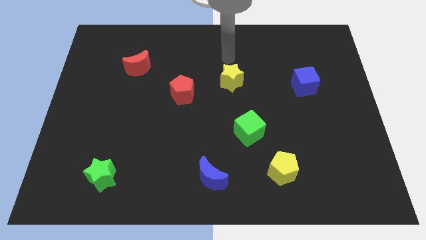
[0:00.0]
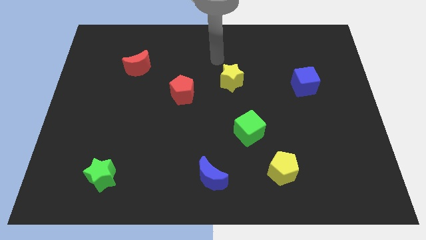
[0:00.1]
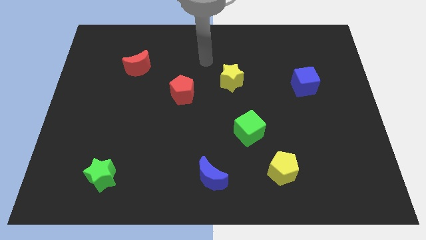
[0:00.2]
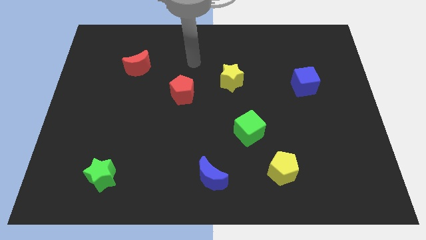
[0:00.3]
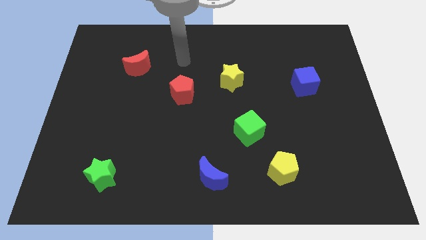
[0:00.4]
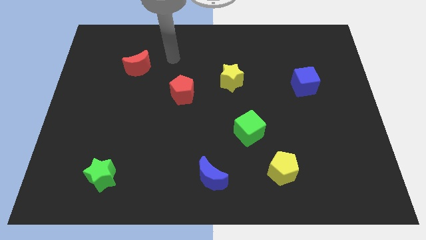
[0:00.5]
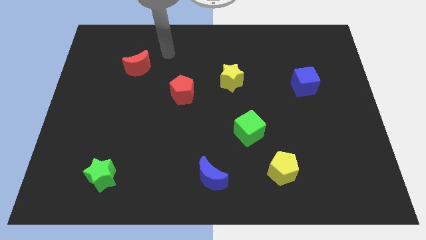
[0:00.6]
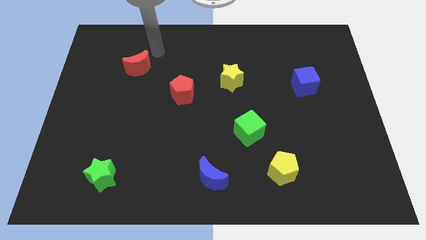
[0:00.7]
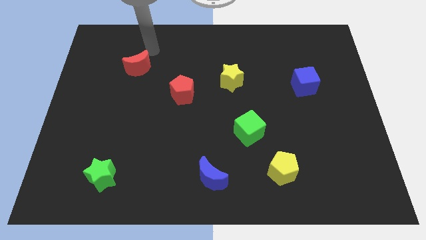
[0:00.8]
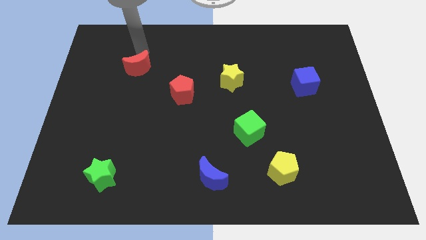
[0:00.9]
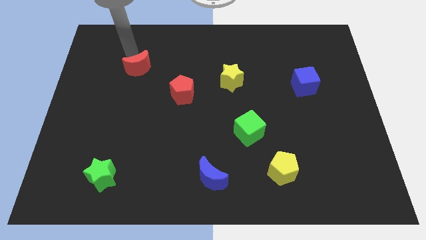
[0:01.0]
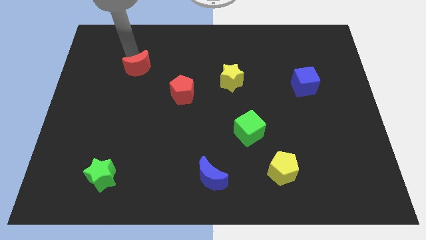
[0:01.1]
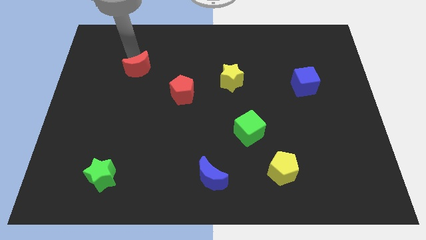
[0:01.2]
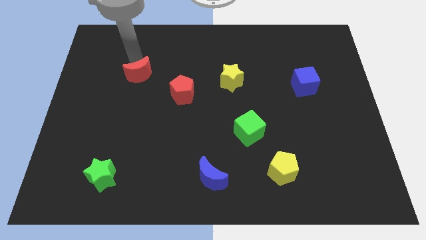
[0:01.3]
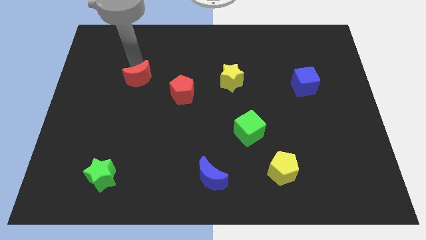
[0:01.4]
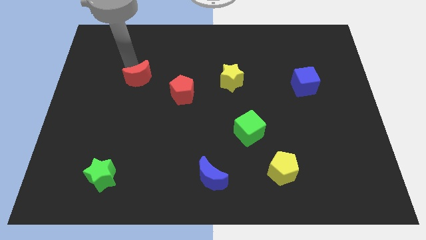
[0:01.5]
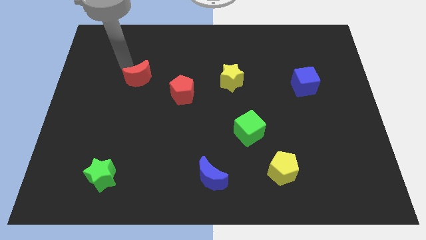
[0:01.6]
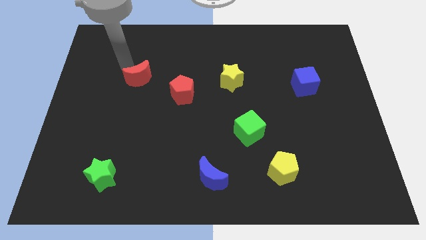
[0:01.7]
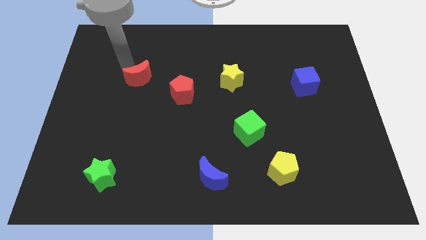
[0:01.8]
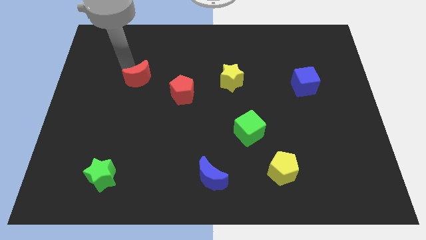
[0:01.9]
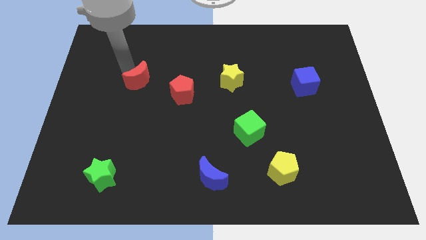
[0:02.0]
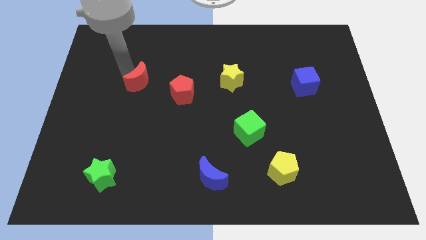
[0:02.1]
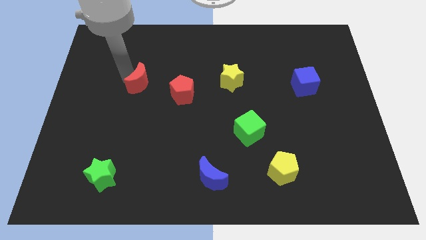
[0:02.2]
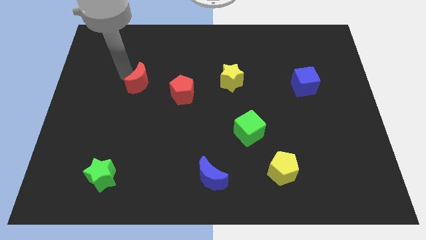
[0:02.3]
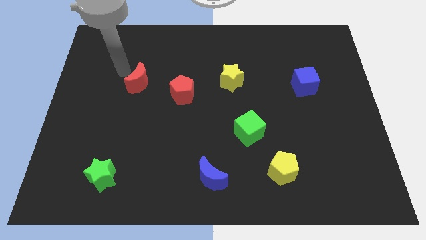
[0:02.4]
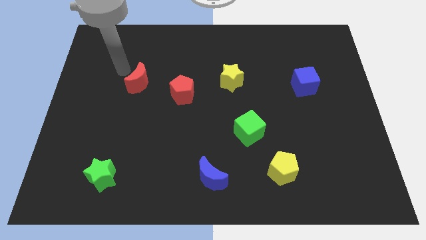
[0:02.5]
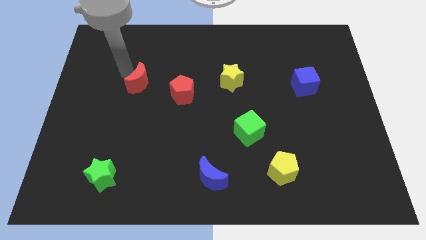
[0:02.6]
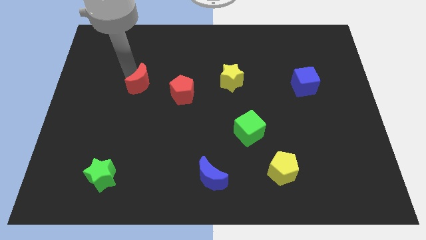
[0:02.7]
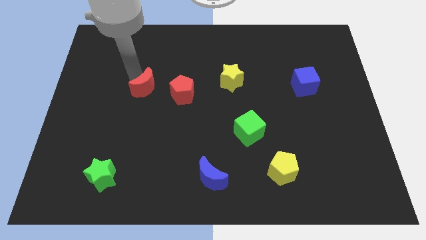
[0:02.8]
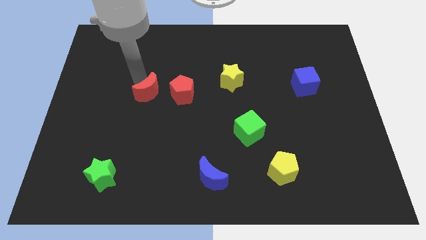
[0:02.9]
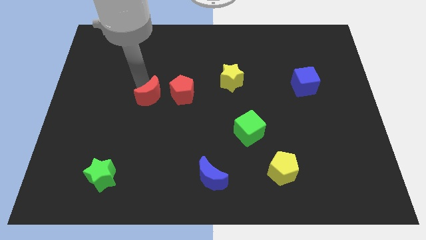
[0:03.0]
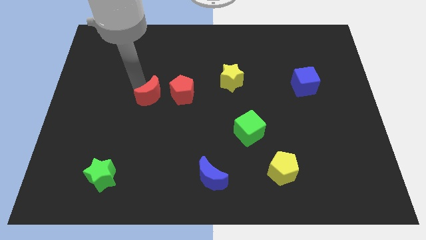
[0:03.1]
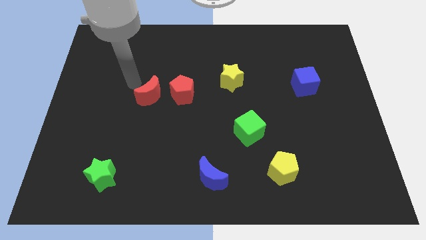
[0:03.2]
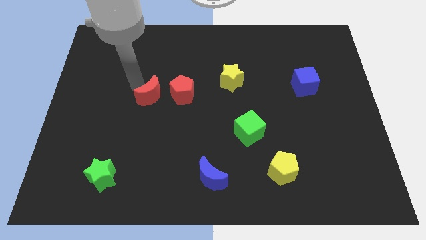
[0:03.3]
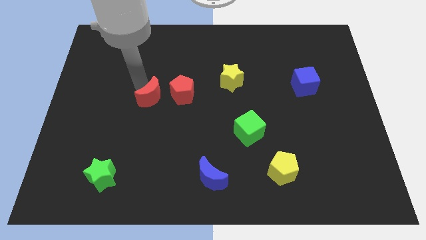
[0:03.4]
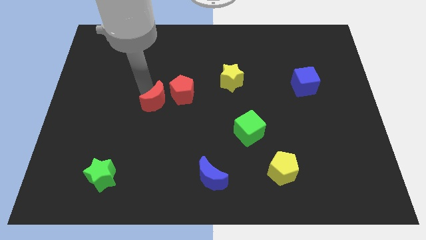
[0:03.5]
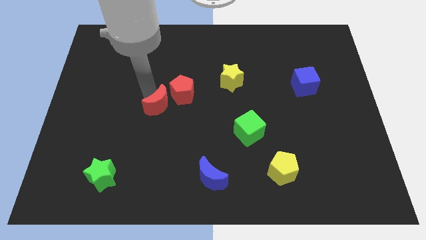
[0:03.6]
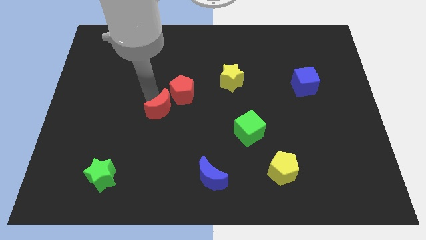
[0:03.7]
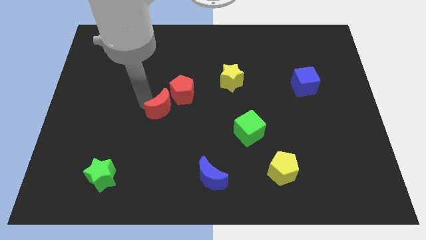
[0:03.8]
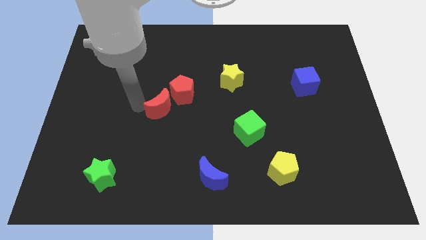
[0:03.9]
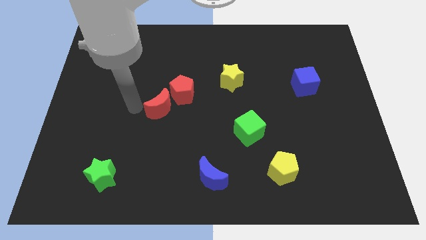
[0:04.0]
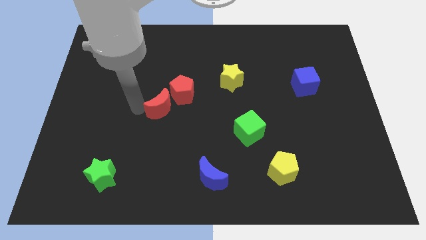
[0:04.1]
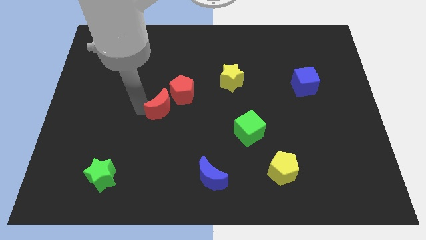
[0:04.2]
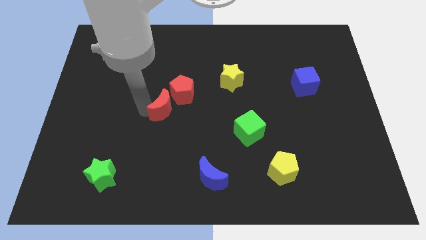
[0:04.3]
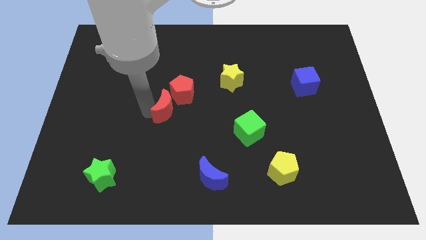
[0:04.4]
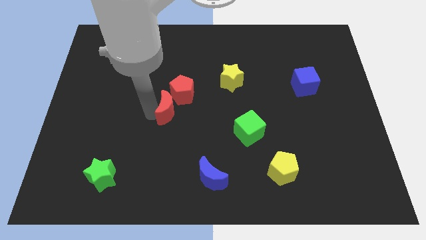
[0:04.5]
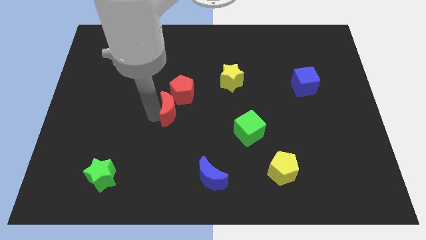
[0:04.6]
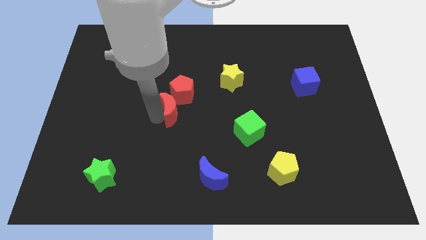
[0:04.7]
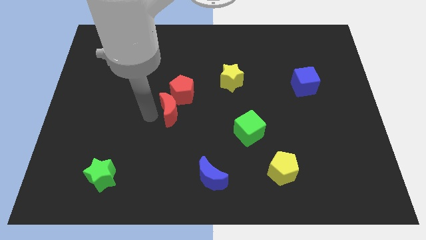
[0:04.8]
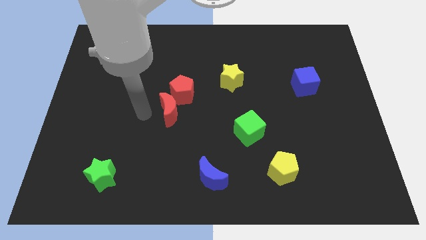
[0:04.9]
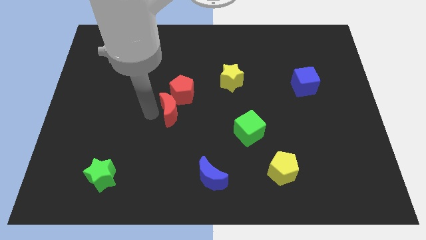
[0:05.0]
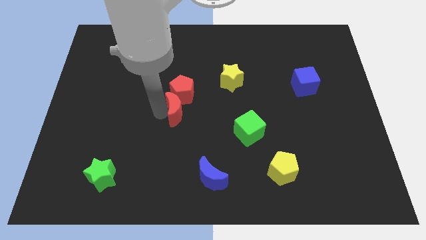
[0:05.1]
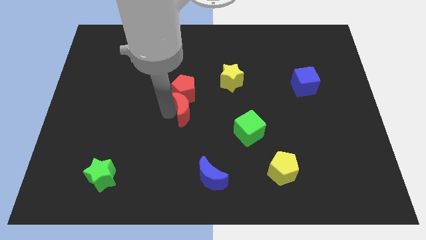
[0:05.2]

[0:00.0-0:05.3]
push the red moon diagonally down and to the right of the red pentagon

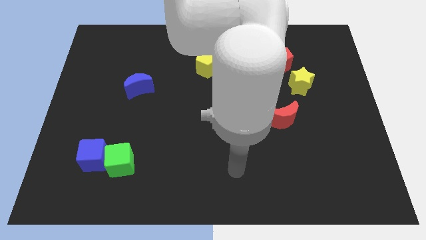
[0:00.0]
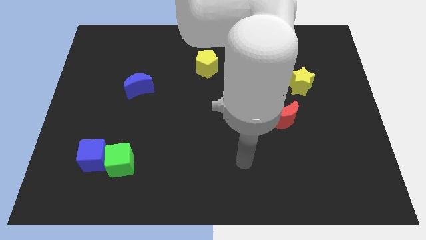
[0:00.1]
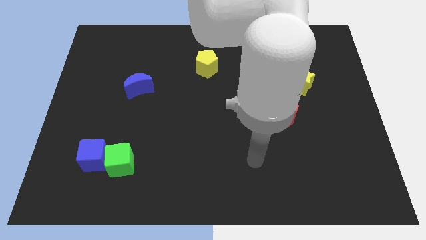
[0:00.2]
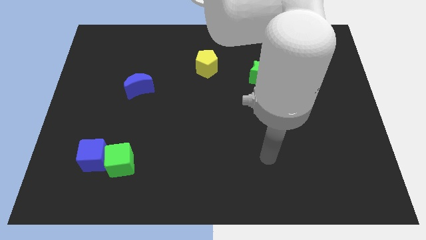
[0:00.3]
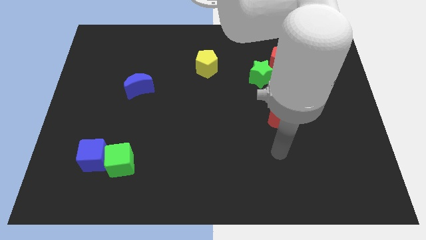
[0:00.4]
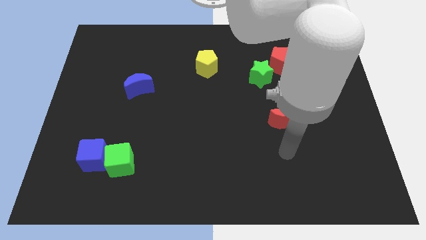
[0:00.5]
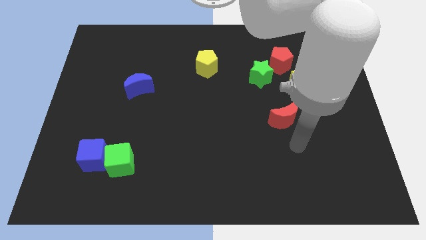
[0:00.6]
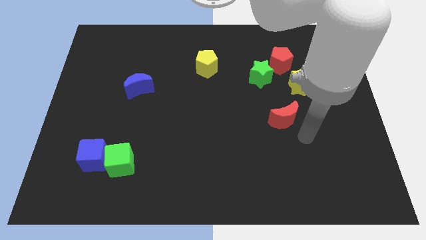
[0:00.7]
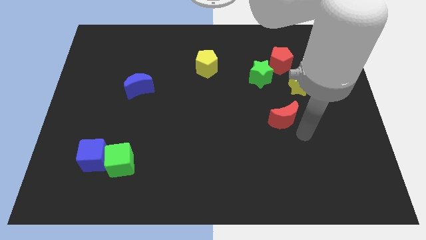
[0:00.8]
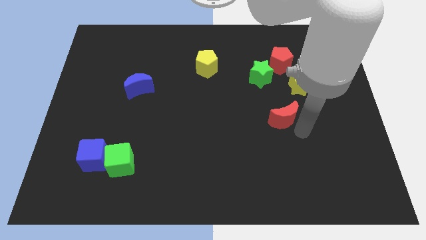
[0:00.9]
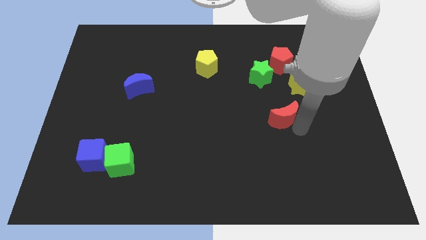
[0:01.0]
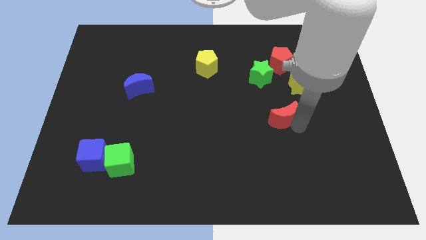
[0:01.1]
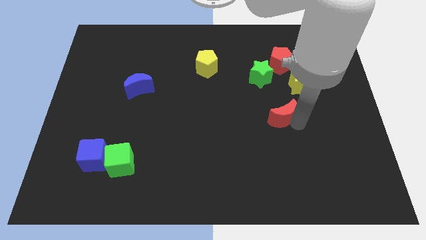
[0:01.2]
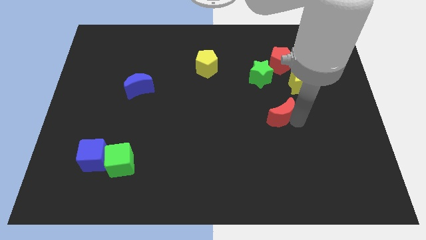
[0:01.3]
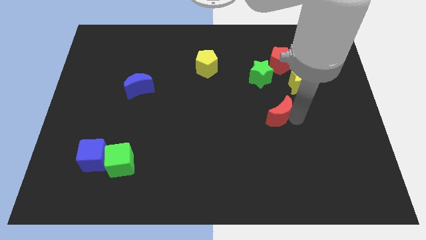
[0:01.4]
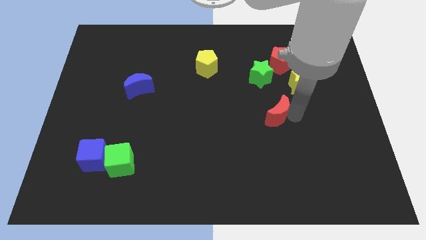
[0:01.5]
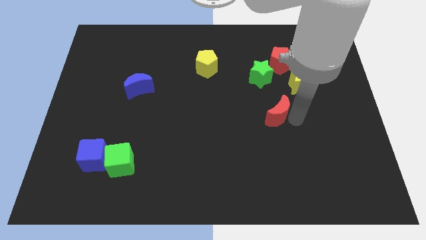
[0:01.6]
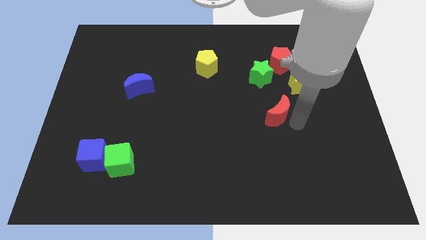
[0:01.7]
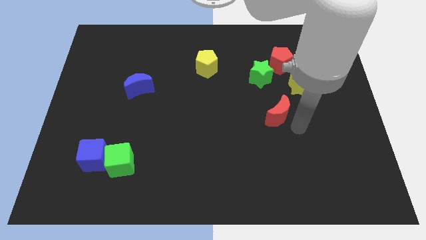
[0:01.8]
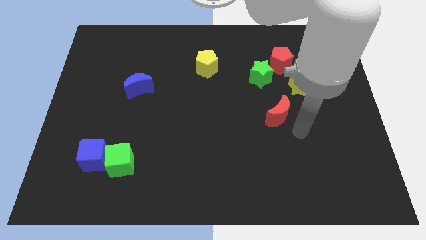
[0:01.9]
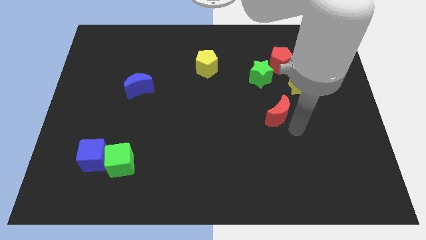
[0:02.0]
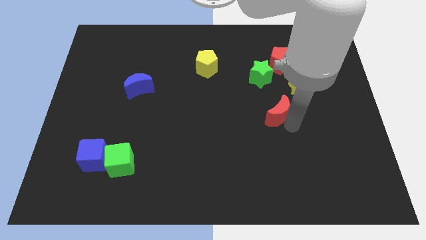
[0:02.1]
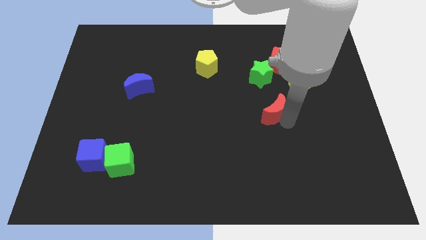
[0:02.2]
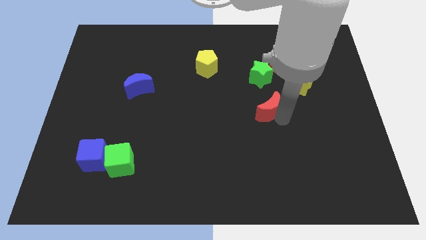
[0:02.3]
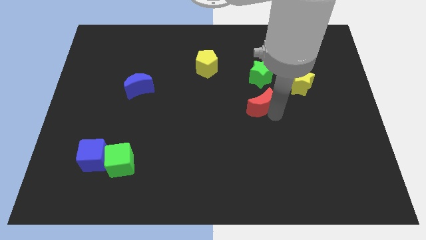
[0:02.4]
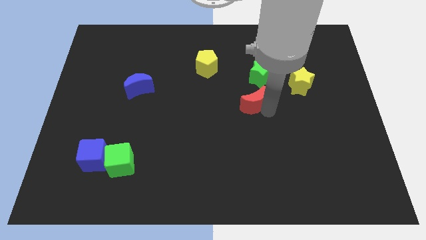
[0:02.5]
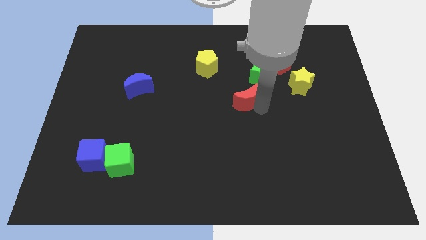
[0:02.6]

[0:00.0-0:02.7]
move the red moon to the bottom left of the green star
